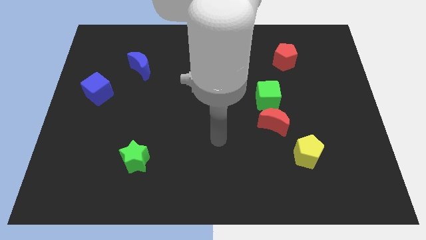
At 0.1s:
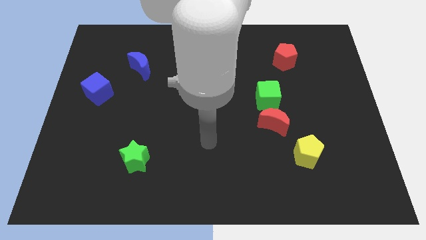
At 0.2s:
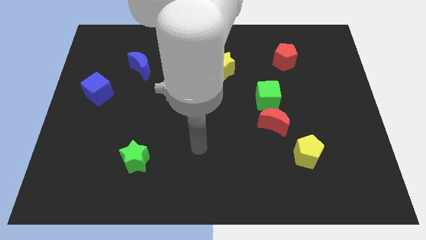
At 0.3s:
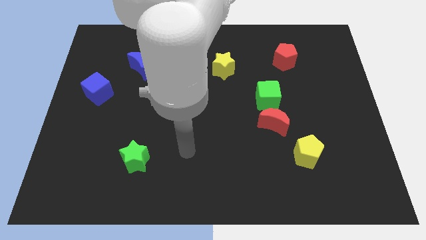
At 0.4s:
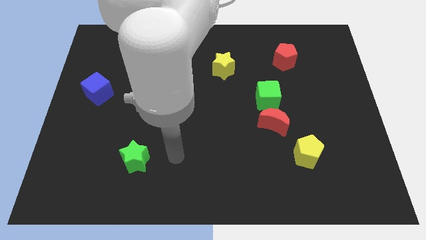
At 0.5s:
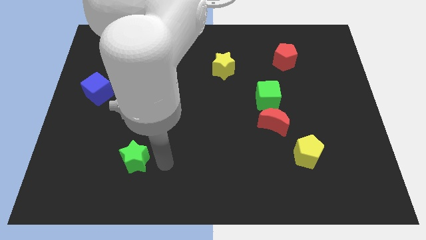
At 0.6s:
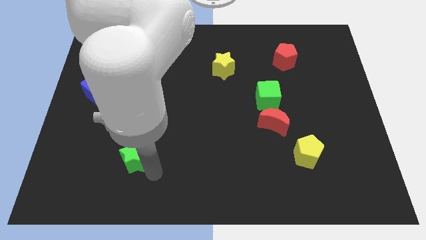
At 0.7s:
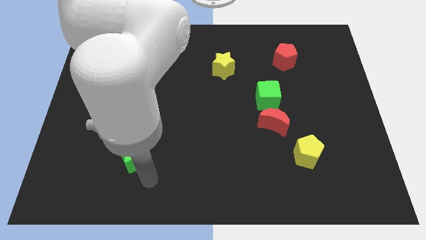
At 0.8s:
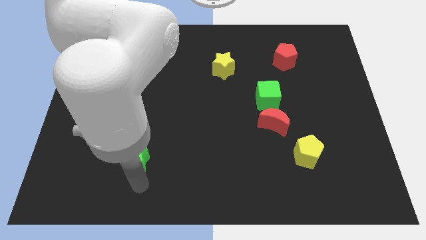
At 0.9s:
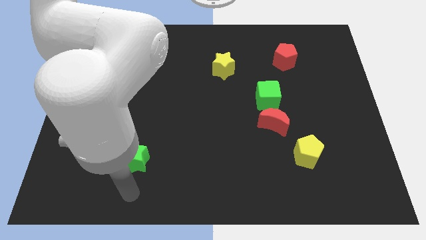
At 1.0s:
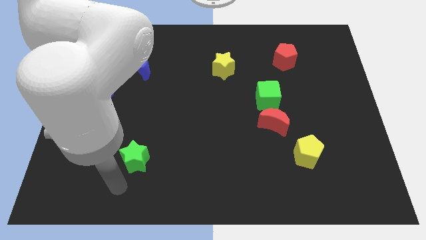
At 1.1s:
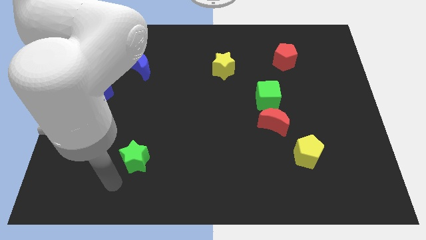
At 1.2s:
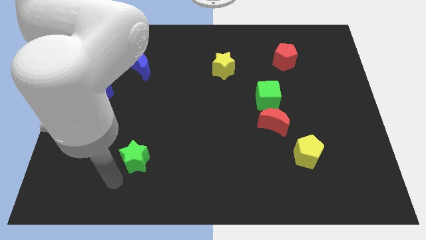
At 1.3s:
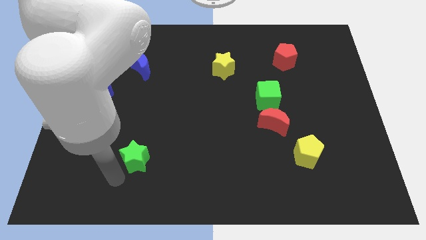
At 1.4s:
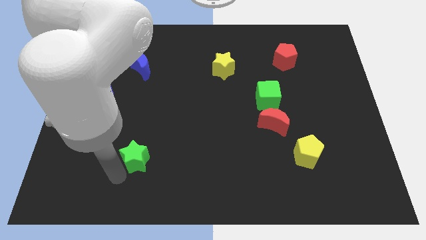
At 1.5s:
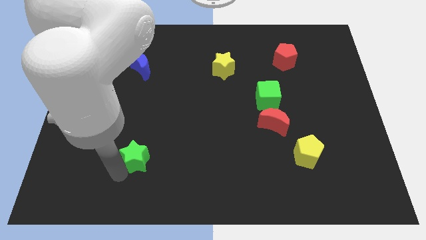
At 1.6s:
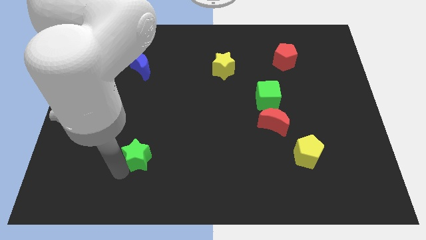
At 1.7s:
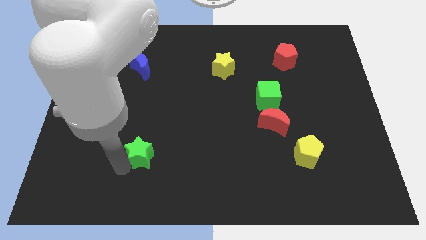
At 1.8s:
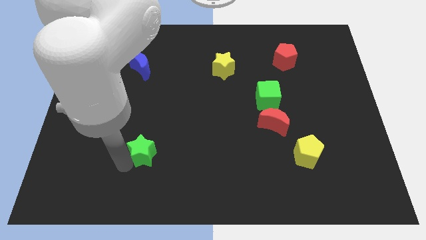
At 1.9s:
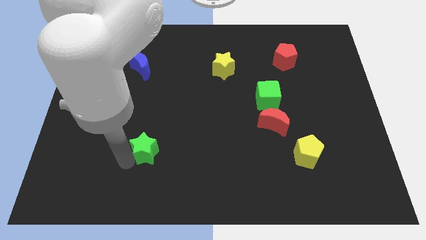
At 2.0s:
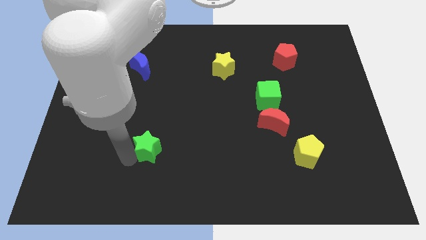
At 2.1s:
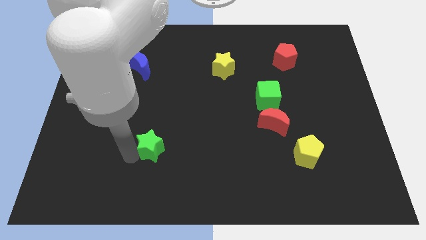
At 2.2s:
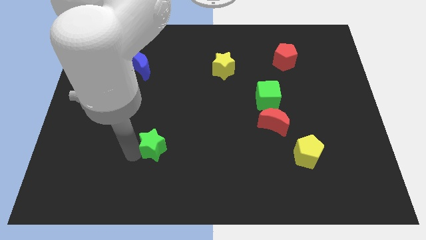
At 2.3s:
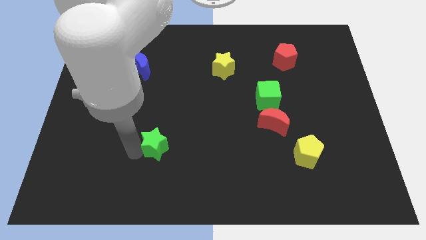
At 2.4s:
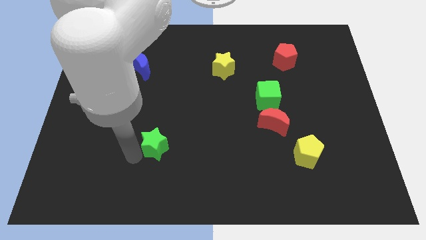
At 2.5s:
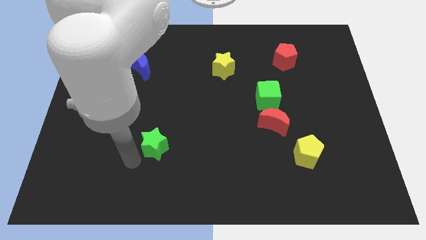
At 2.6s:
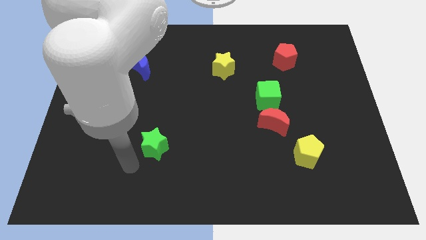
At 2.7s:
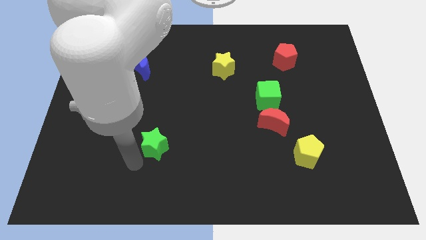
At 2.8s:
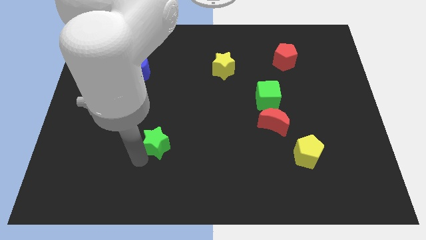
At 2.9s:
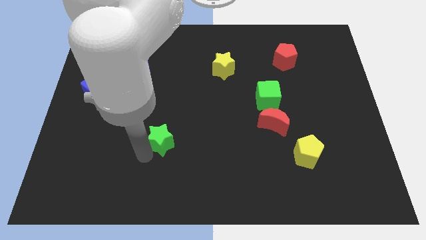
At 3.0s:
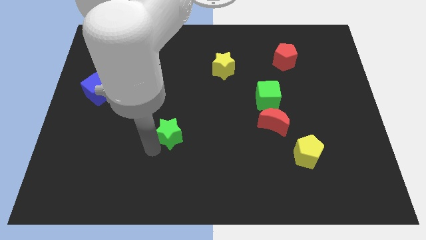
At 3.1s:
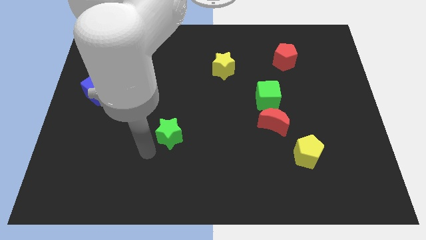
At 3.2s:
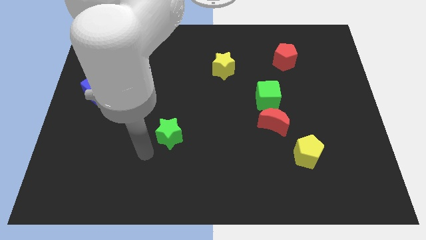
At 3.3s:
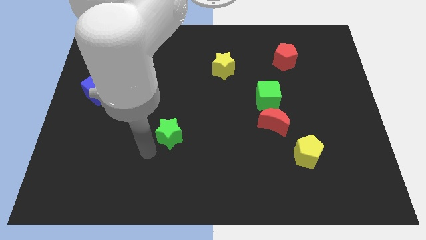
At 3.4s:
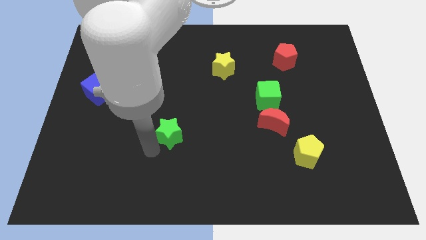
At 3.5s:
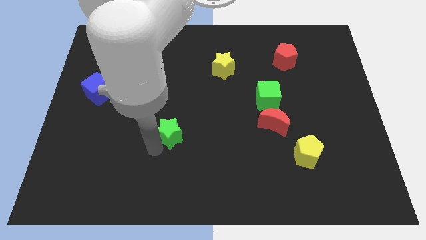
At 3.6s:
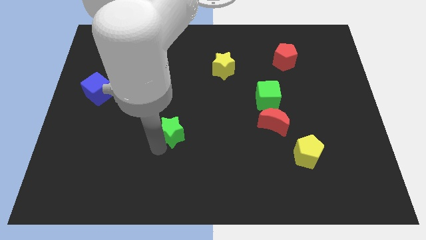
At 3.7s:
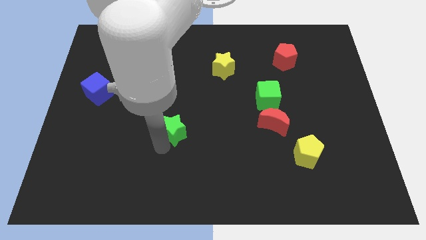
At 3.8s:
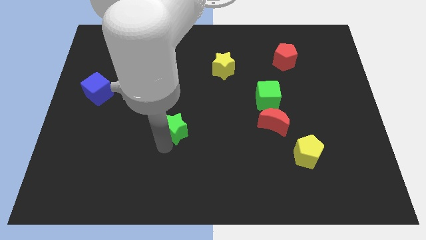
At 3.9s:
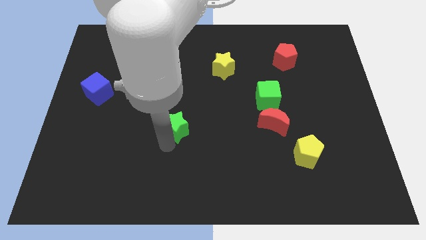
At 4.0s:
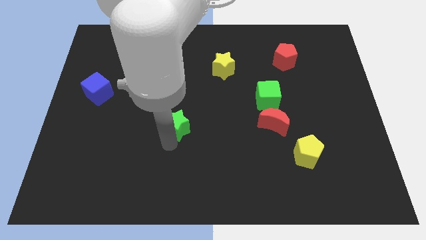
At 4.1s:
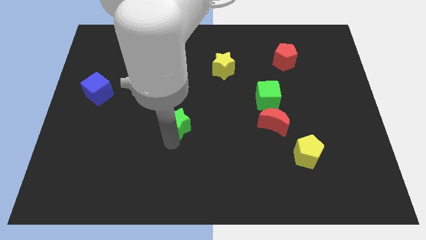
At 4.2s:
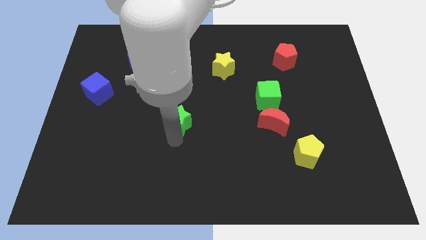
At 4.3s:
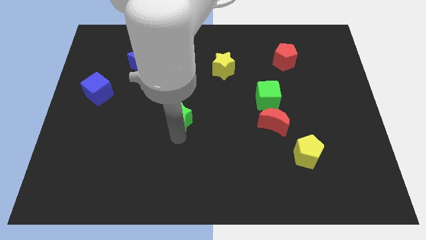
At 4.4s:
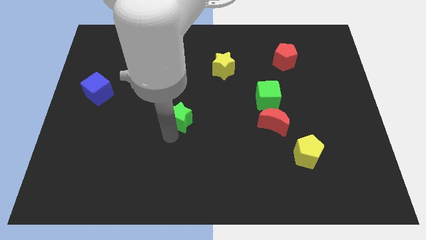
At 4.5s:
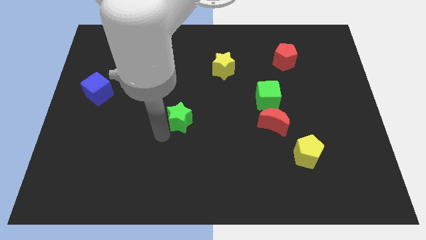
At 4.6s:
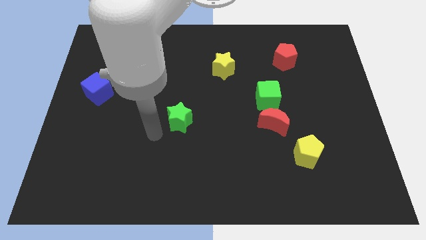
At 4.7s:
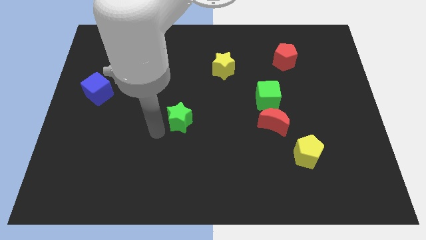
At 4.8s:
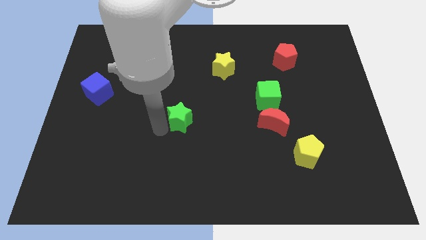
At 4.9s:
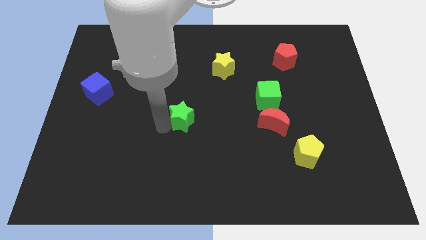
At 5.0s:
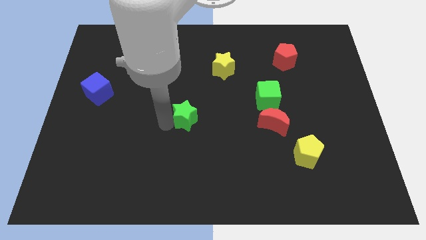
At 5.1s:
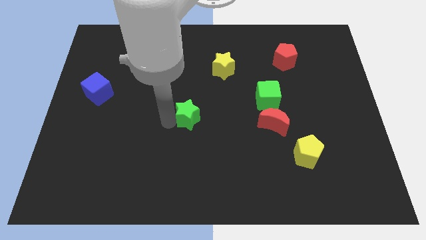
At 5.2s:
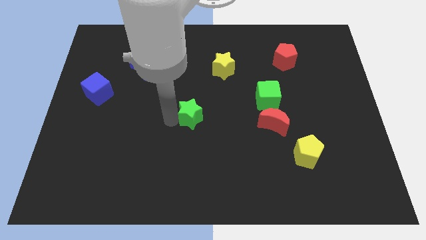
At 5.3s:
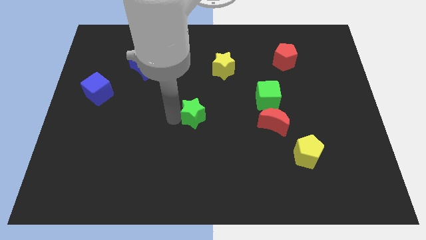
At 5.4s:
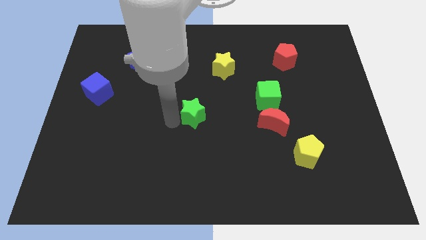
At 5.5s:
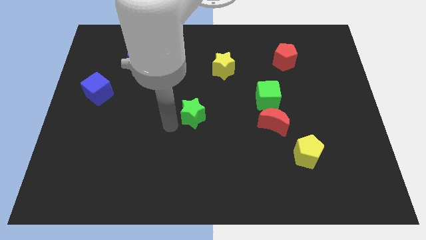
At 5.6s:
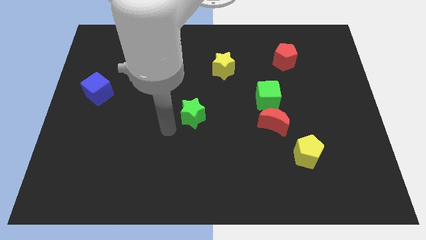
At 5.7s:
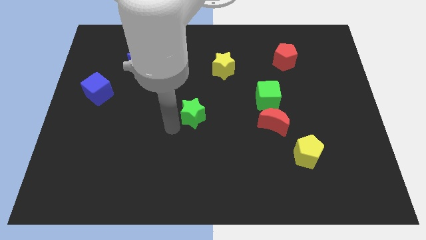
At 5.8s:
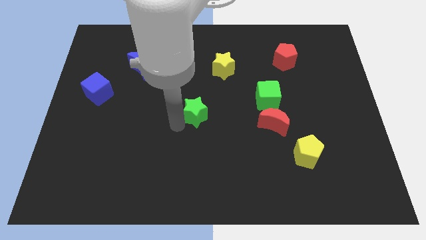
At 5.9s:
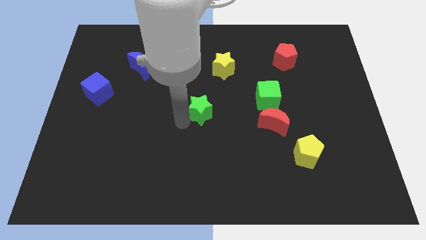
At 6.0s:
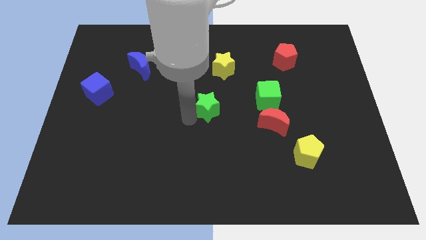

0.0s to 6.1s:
slide the green star to the bottom side of the yellow star
